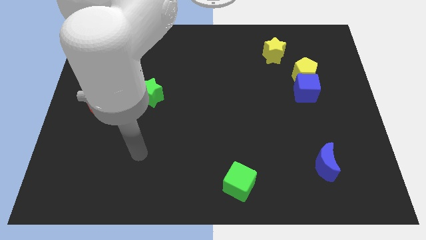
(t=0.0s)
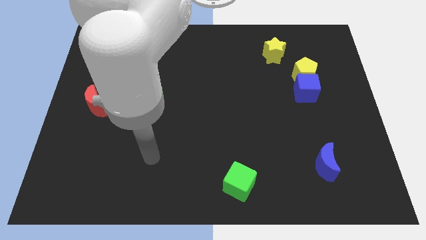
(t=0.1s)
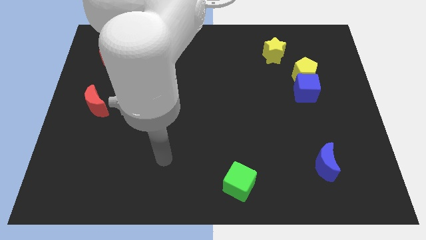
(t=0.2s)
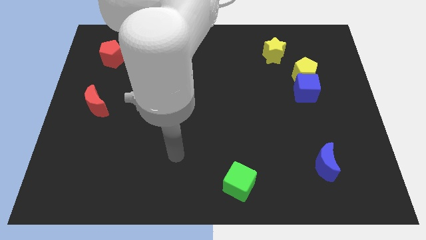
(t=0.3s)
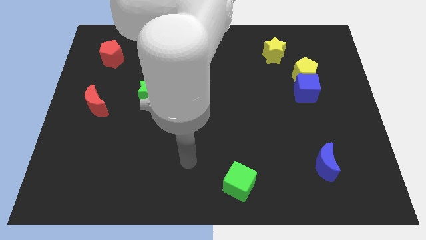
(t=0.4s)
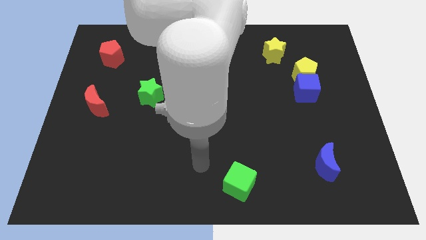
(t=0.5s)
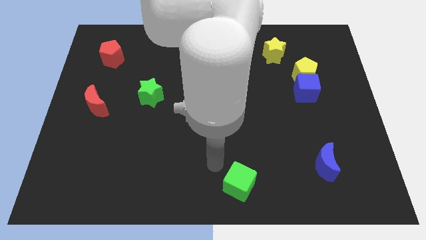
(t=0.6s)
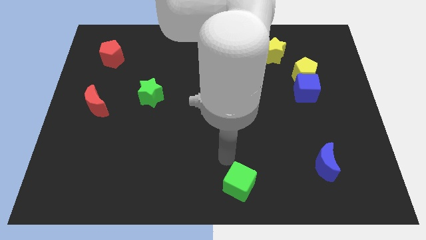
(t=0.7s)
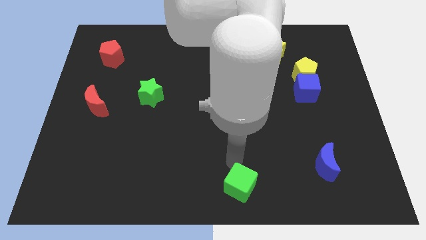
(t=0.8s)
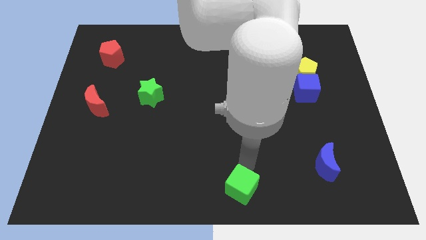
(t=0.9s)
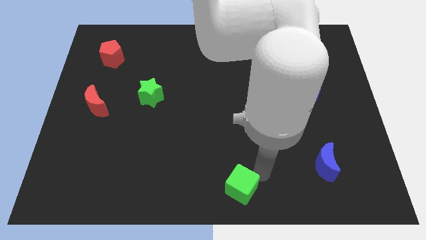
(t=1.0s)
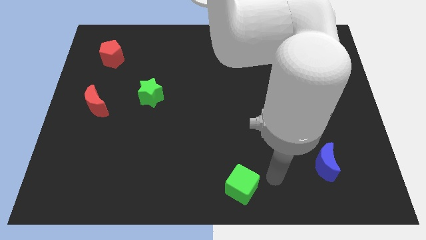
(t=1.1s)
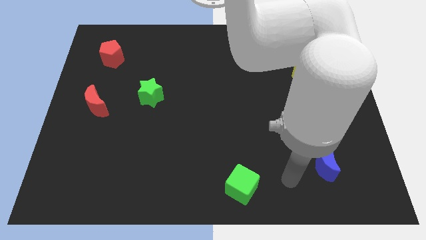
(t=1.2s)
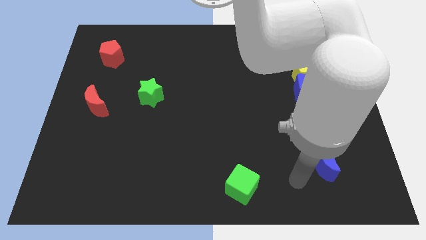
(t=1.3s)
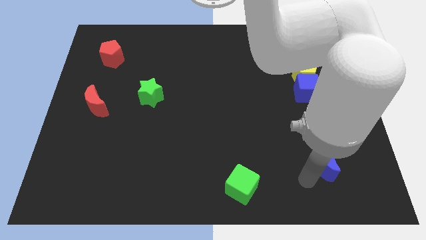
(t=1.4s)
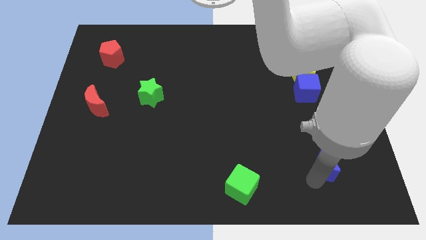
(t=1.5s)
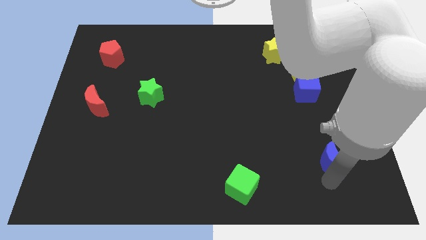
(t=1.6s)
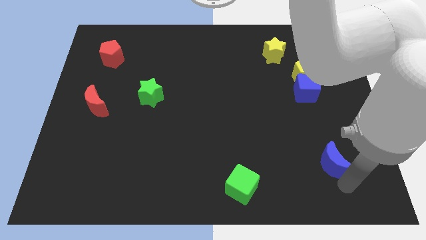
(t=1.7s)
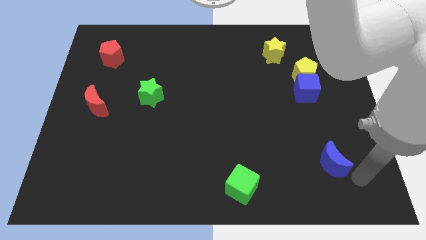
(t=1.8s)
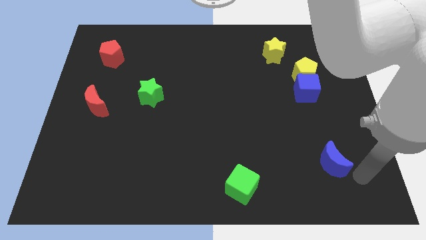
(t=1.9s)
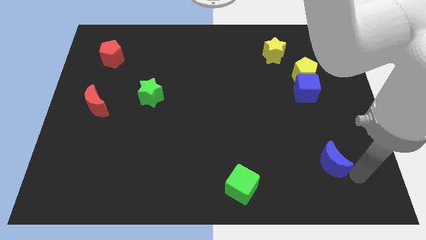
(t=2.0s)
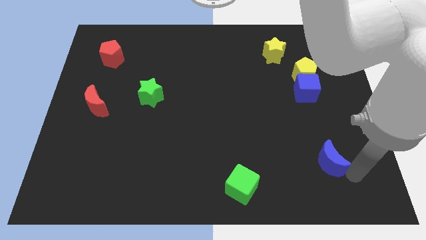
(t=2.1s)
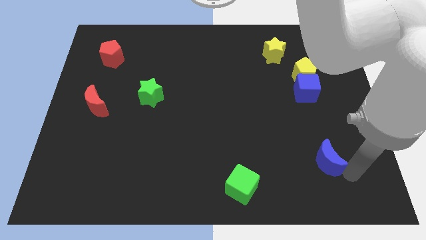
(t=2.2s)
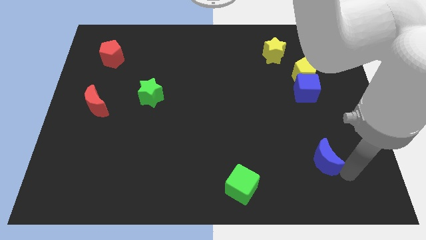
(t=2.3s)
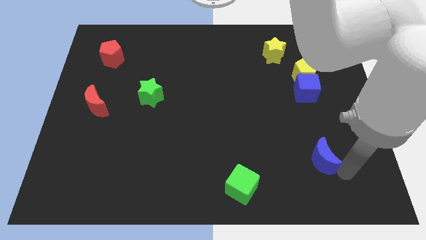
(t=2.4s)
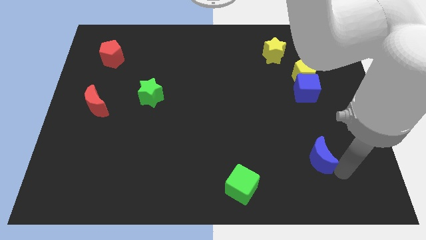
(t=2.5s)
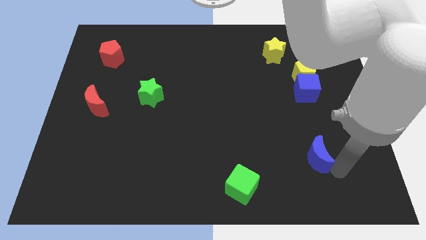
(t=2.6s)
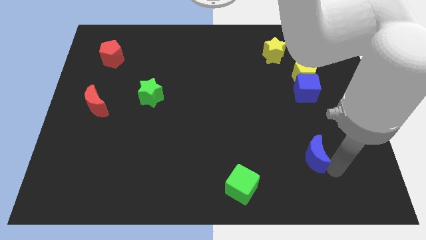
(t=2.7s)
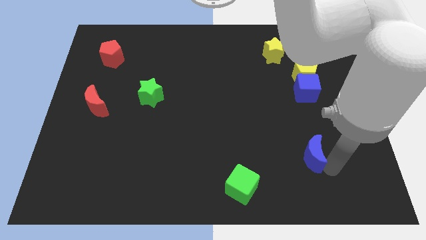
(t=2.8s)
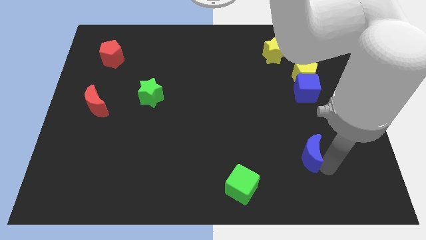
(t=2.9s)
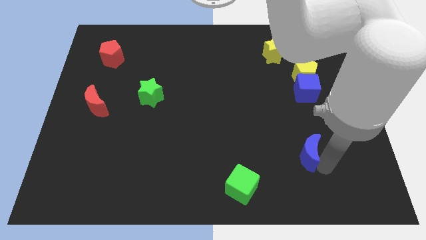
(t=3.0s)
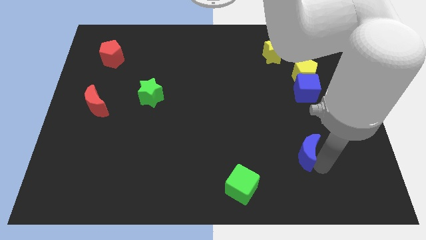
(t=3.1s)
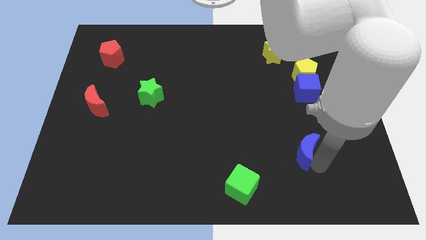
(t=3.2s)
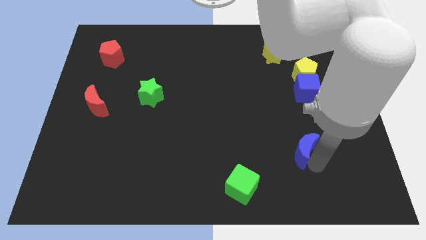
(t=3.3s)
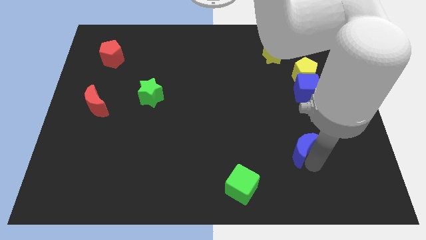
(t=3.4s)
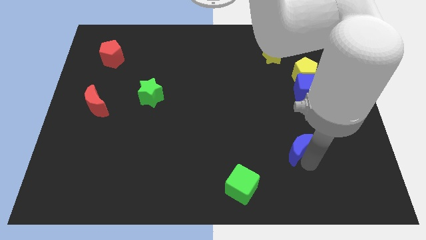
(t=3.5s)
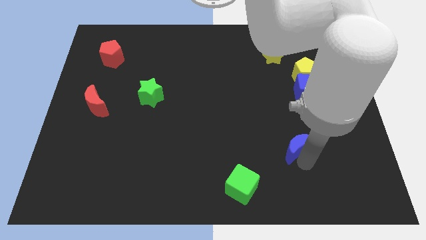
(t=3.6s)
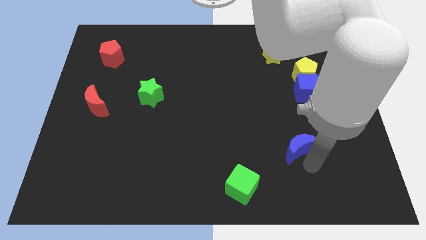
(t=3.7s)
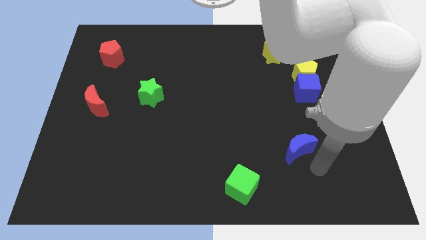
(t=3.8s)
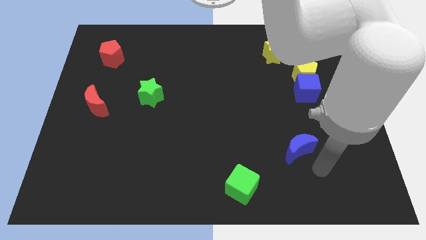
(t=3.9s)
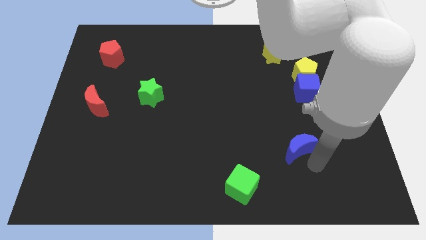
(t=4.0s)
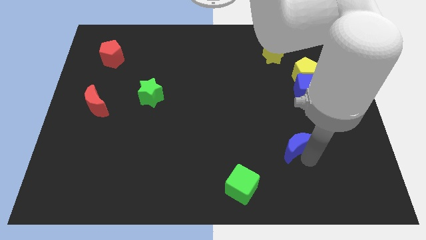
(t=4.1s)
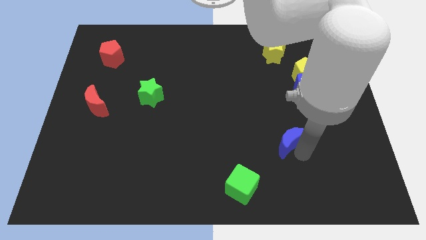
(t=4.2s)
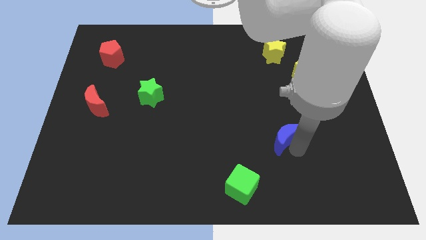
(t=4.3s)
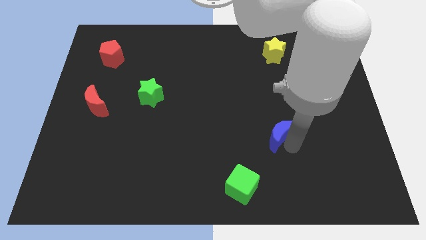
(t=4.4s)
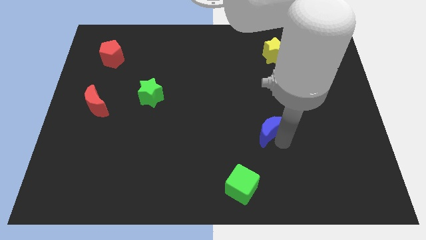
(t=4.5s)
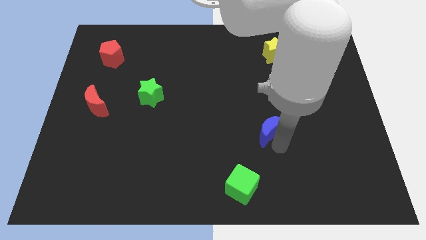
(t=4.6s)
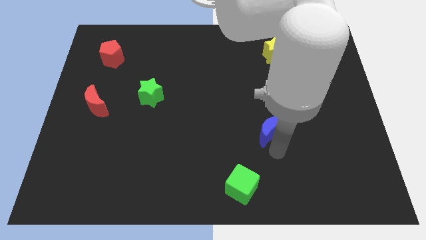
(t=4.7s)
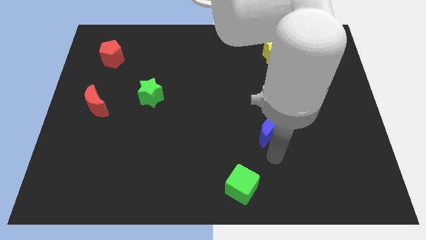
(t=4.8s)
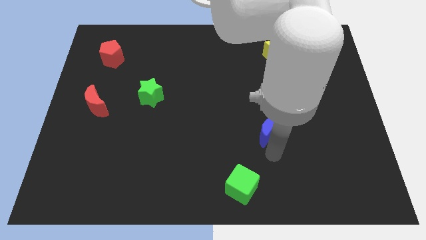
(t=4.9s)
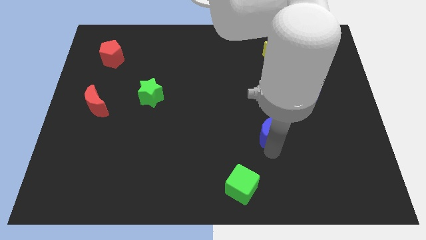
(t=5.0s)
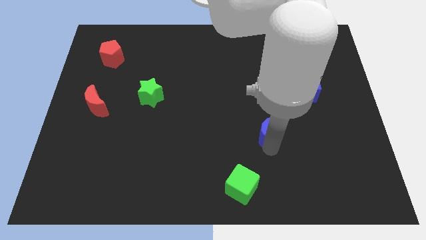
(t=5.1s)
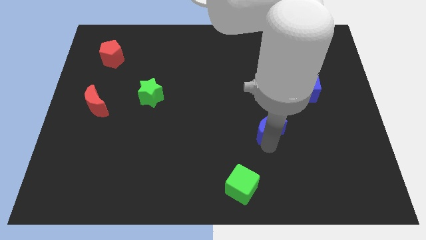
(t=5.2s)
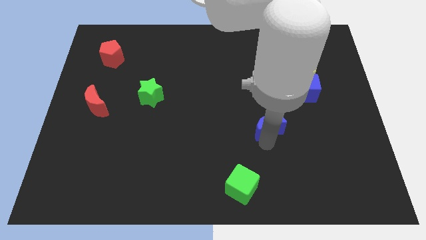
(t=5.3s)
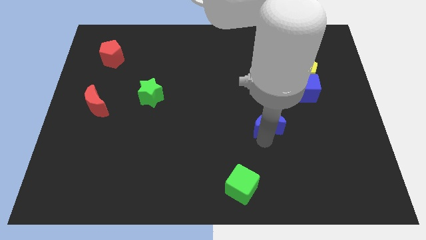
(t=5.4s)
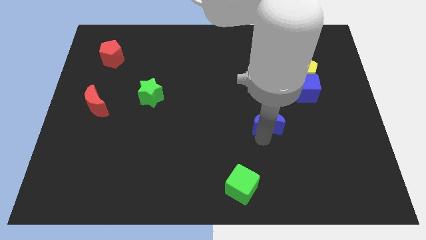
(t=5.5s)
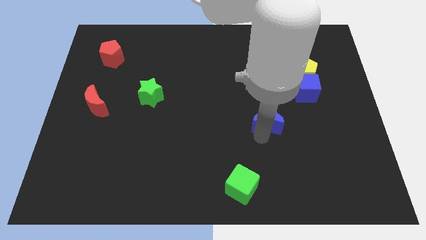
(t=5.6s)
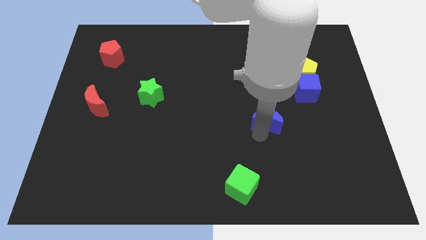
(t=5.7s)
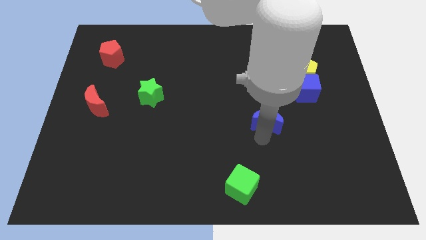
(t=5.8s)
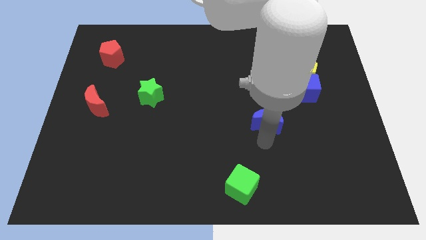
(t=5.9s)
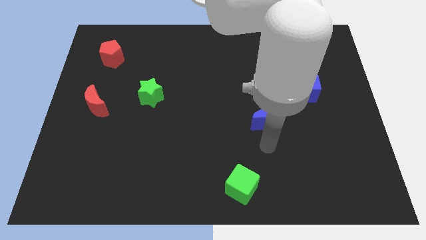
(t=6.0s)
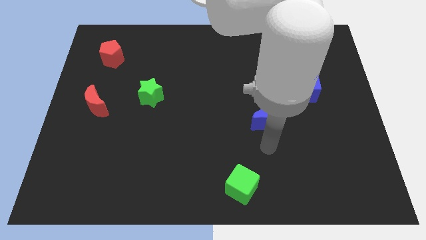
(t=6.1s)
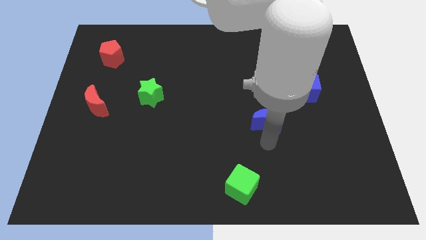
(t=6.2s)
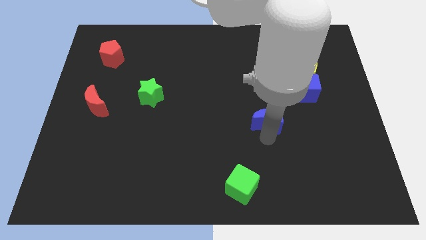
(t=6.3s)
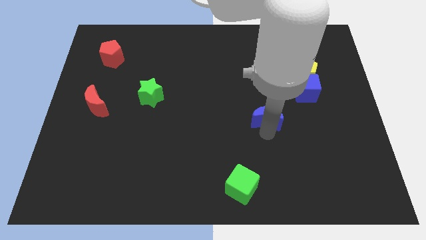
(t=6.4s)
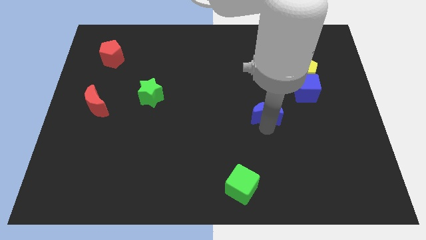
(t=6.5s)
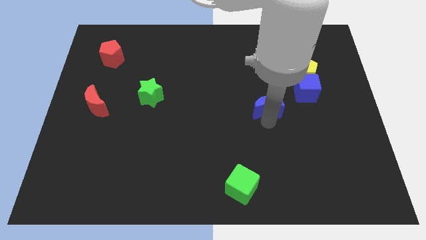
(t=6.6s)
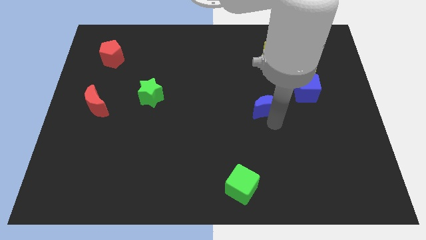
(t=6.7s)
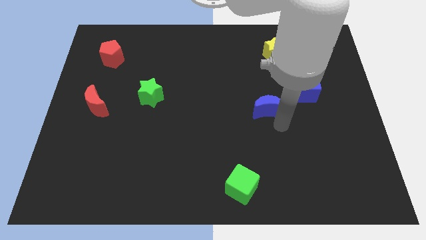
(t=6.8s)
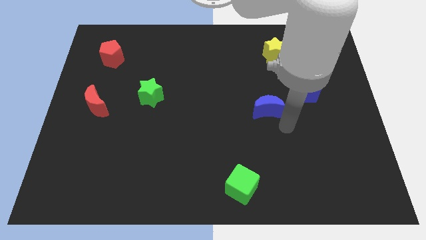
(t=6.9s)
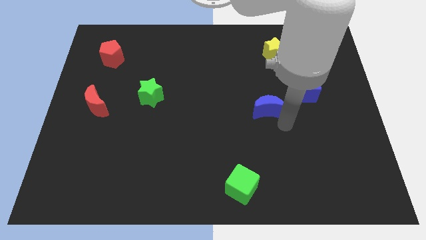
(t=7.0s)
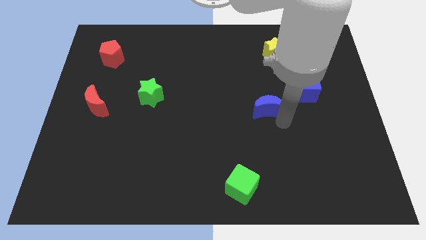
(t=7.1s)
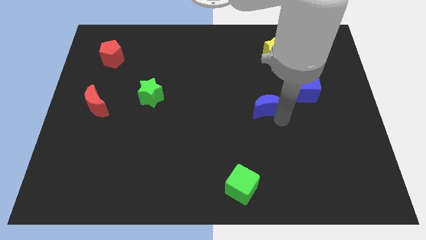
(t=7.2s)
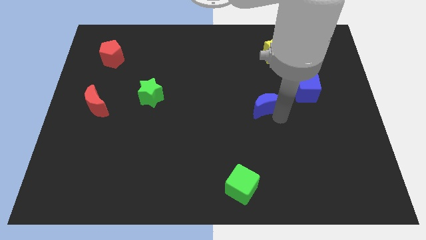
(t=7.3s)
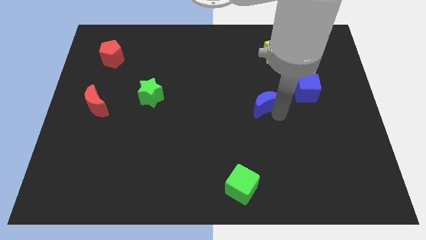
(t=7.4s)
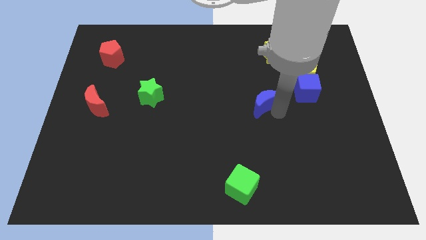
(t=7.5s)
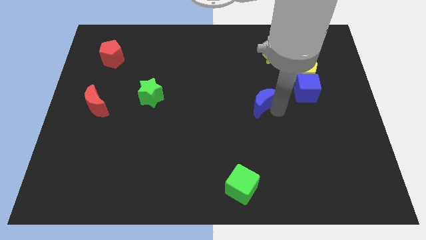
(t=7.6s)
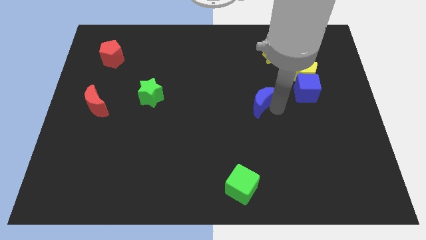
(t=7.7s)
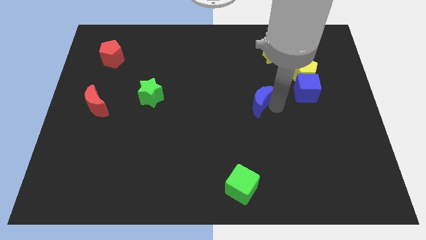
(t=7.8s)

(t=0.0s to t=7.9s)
push the blue moon up and then left
